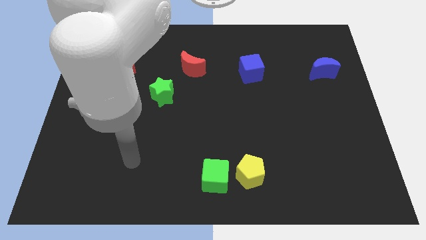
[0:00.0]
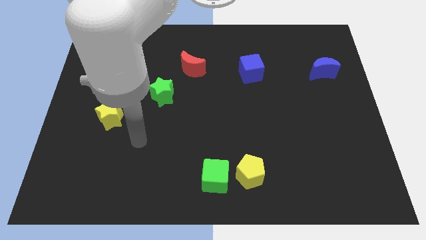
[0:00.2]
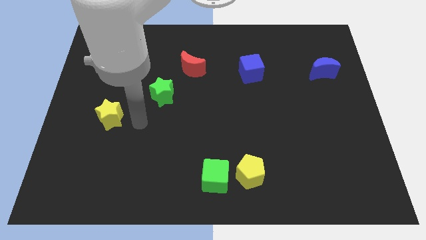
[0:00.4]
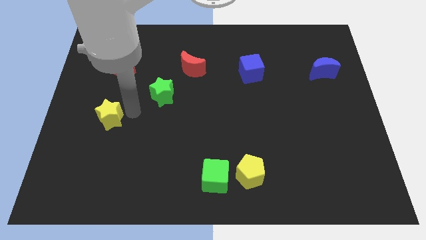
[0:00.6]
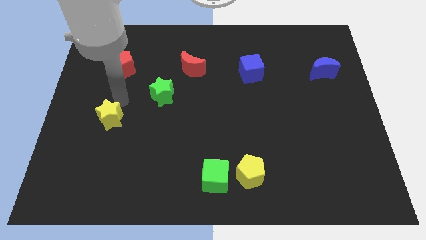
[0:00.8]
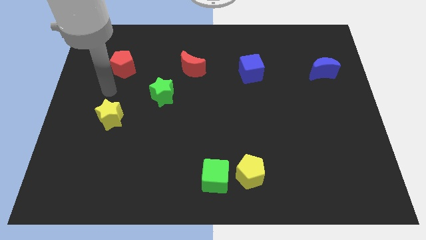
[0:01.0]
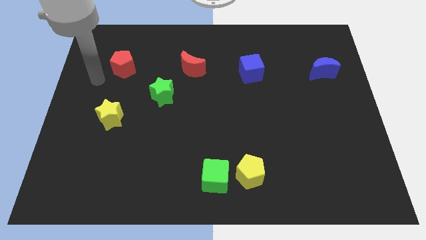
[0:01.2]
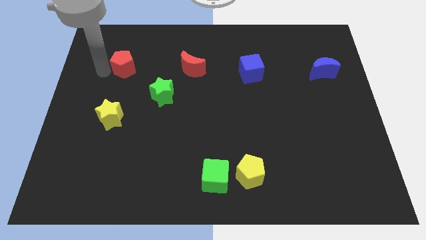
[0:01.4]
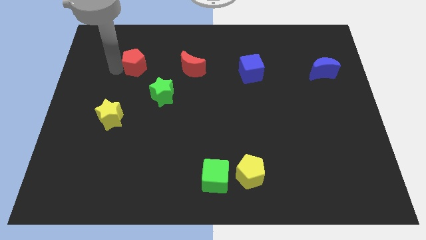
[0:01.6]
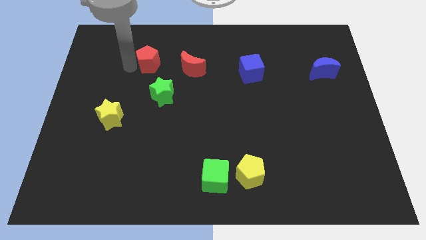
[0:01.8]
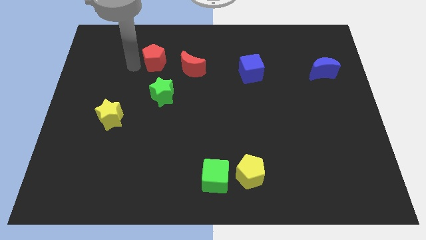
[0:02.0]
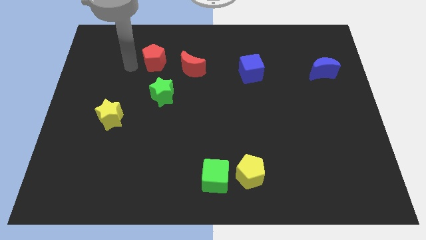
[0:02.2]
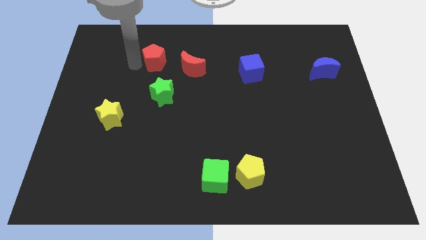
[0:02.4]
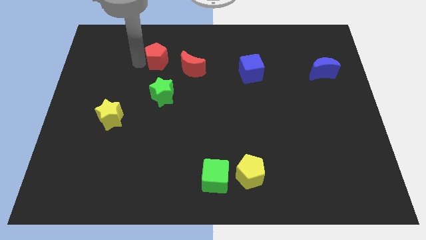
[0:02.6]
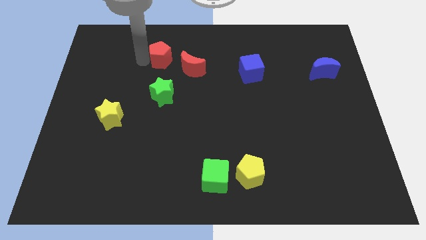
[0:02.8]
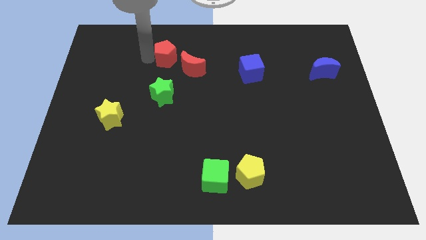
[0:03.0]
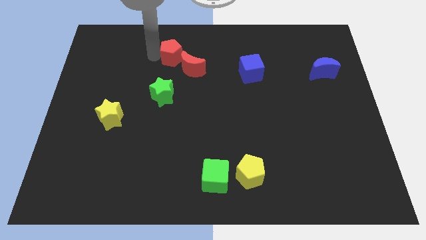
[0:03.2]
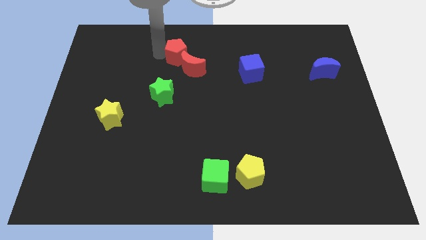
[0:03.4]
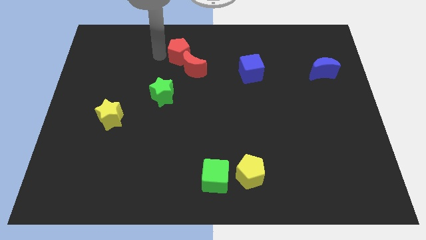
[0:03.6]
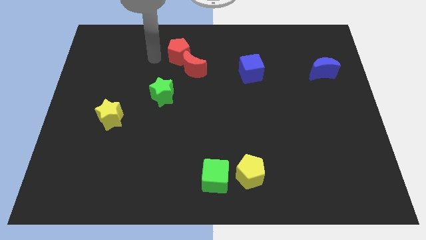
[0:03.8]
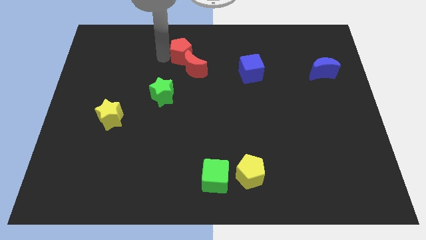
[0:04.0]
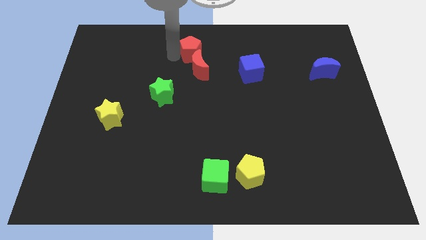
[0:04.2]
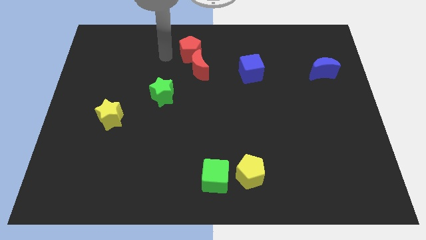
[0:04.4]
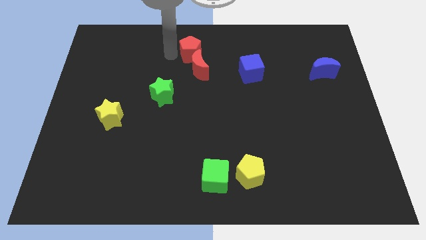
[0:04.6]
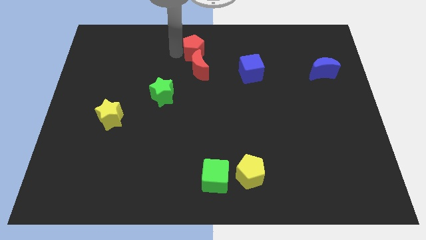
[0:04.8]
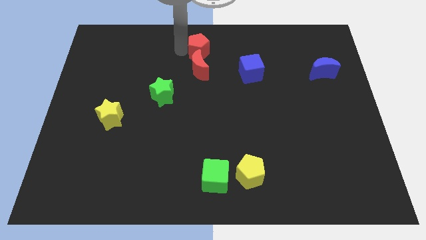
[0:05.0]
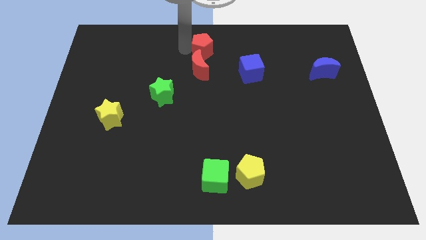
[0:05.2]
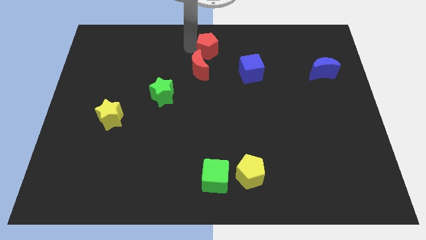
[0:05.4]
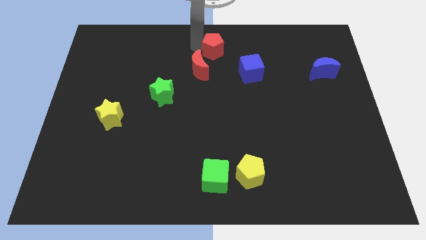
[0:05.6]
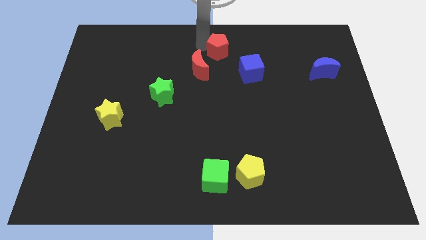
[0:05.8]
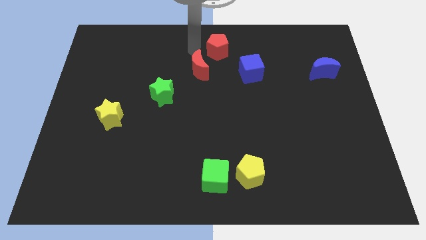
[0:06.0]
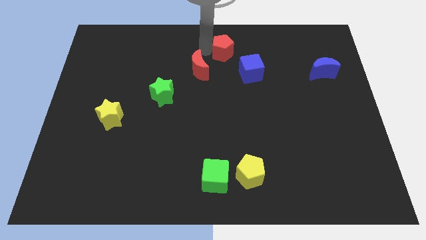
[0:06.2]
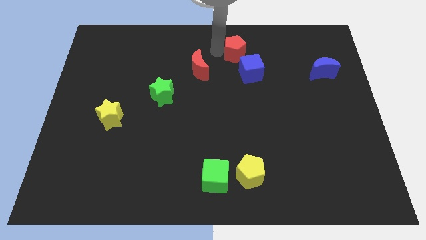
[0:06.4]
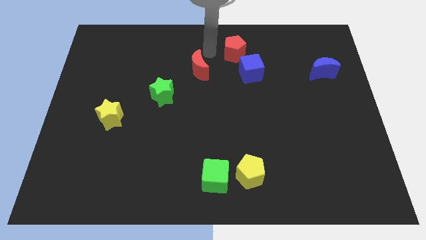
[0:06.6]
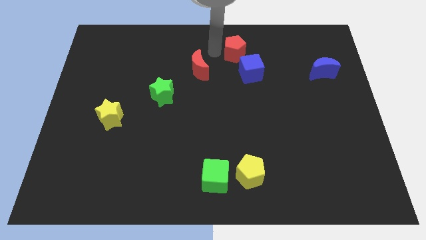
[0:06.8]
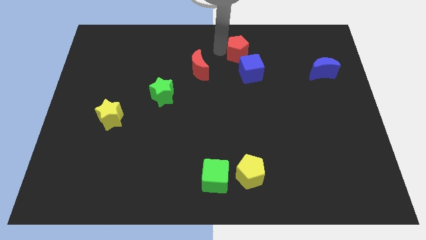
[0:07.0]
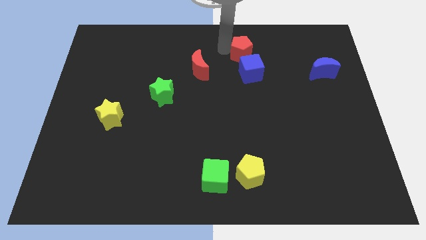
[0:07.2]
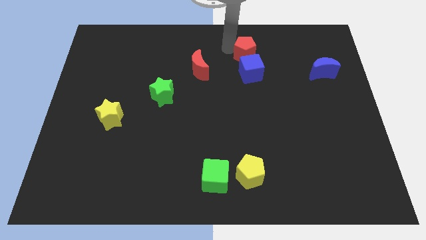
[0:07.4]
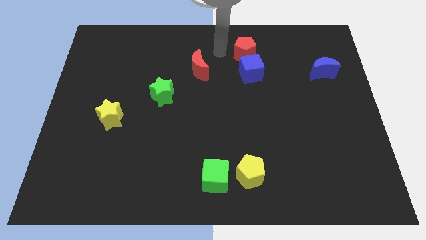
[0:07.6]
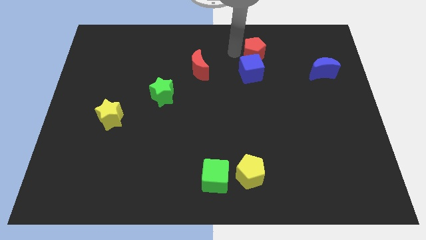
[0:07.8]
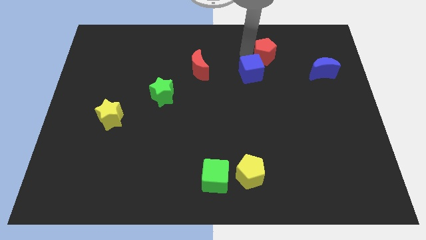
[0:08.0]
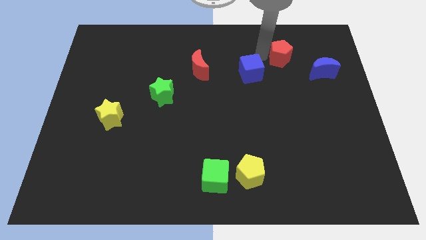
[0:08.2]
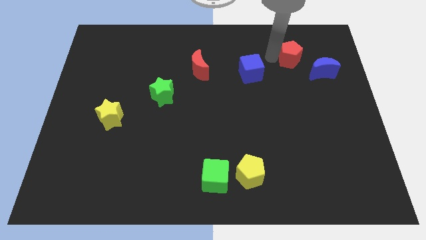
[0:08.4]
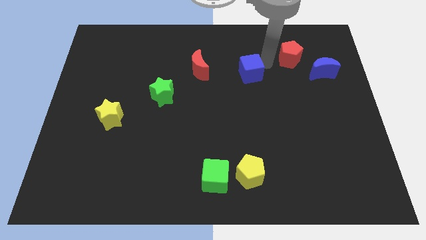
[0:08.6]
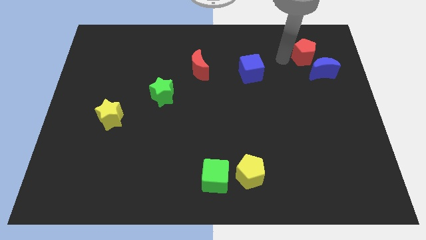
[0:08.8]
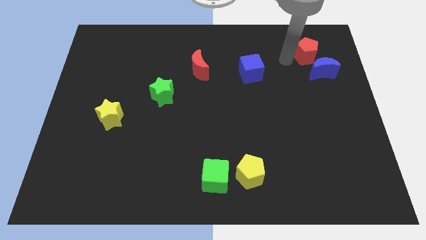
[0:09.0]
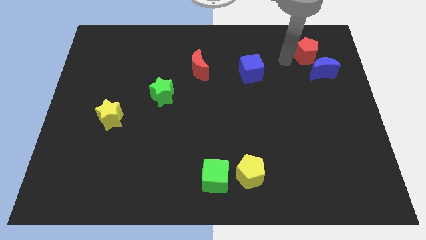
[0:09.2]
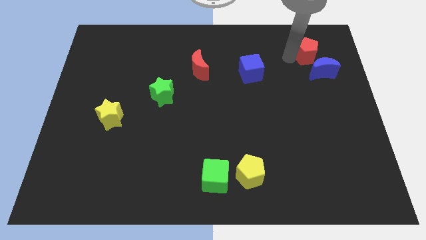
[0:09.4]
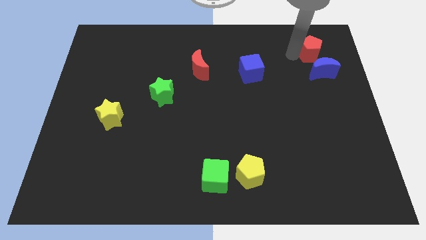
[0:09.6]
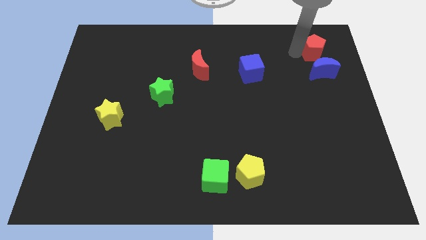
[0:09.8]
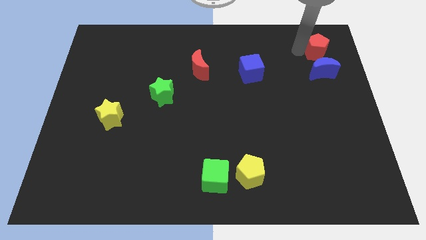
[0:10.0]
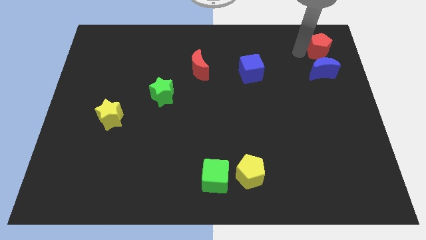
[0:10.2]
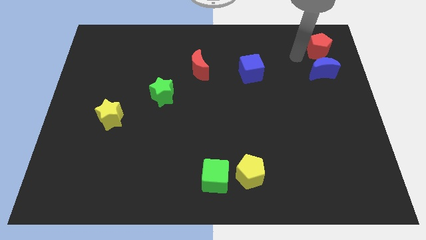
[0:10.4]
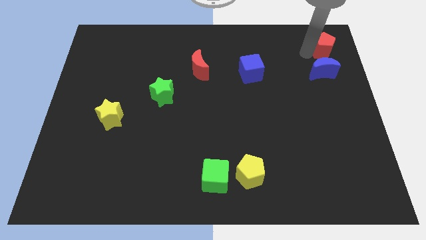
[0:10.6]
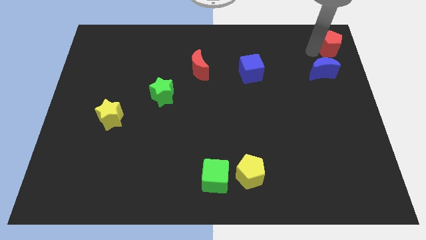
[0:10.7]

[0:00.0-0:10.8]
push the red pentagon to the top right corner

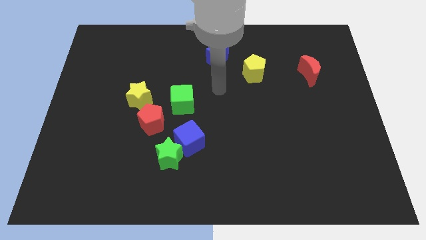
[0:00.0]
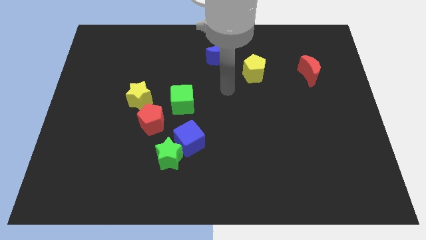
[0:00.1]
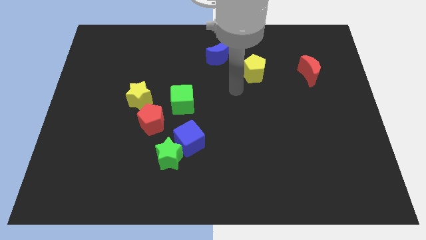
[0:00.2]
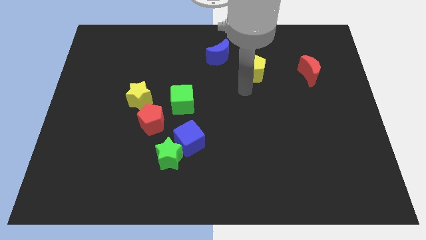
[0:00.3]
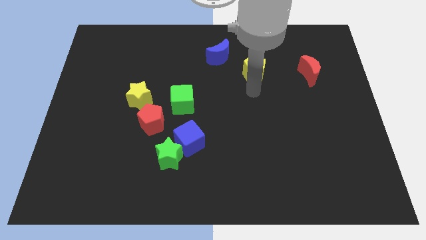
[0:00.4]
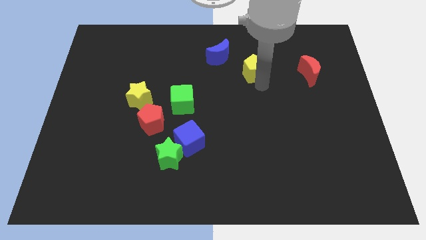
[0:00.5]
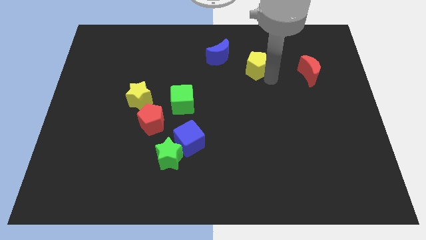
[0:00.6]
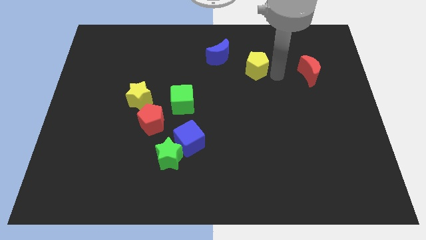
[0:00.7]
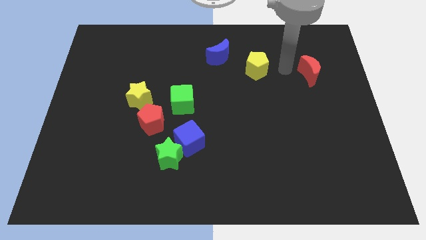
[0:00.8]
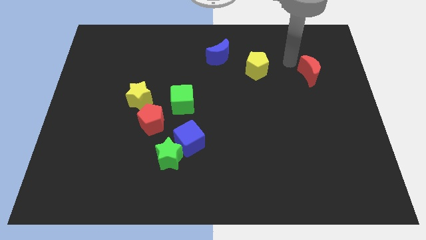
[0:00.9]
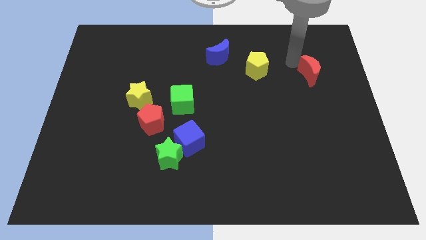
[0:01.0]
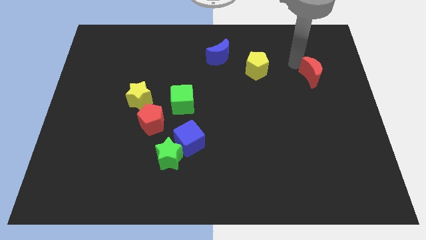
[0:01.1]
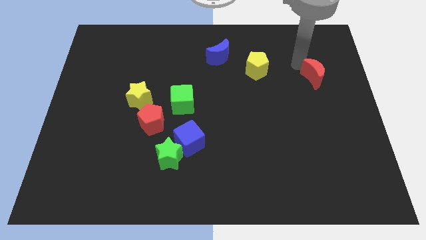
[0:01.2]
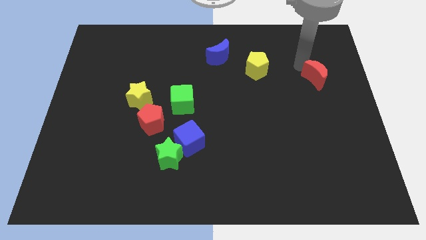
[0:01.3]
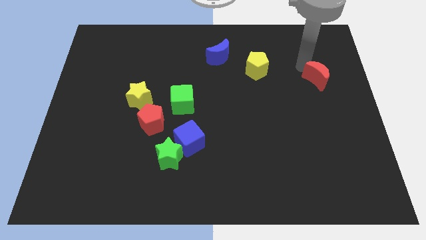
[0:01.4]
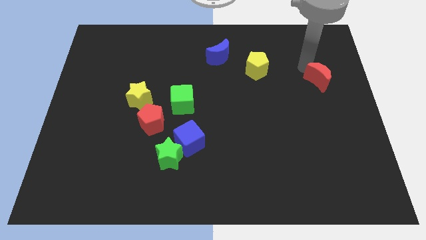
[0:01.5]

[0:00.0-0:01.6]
push the red moon to the right side of the board
